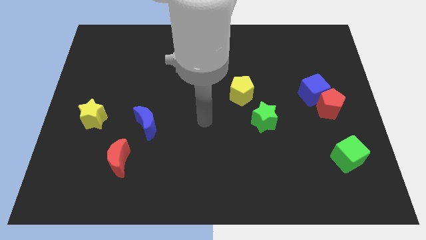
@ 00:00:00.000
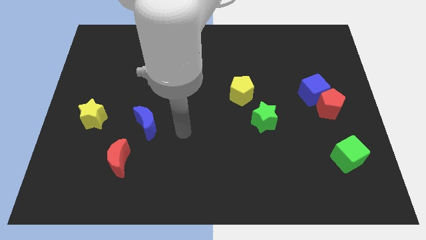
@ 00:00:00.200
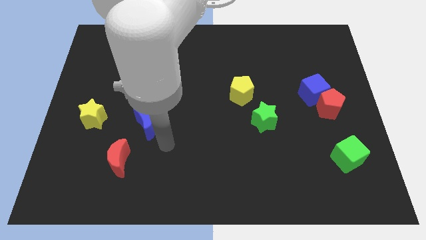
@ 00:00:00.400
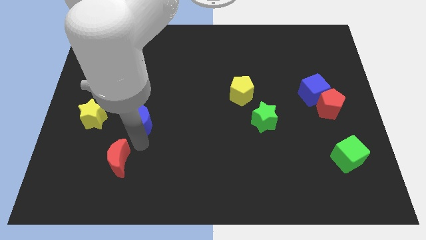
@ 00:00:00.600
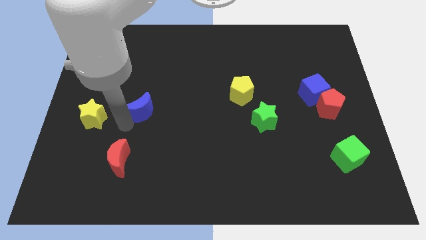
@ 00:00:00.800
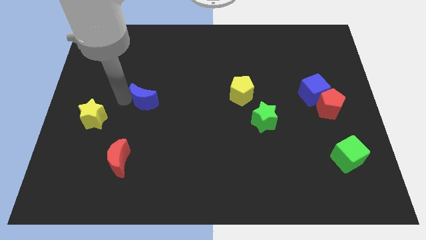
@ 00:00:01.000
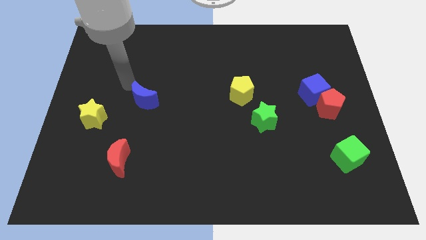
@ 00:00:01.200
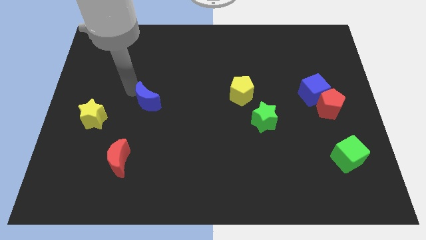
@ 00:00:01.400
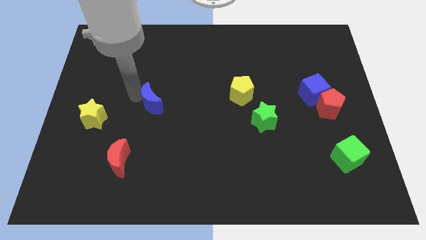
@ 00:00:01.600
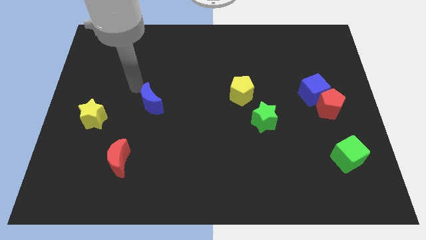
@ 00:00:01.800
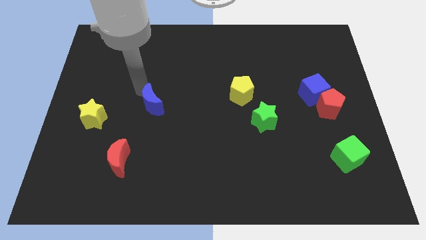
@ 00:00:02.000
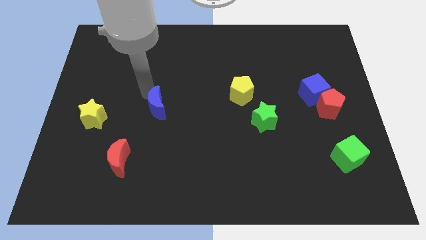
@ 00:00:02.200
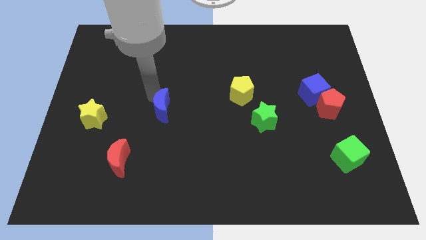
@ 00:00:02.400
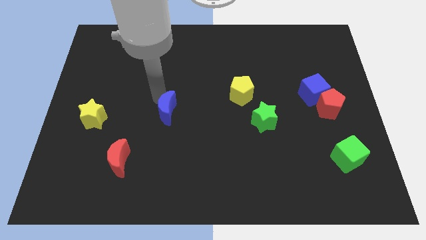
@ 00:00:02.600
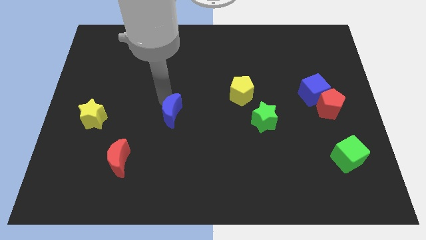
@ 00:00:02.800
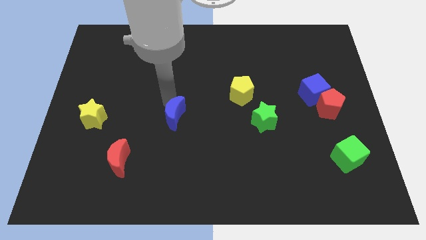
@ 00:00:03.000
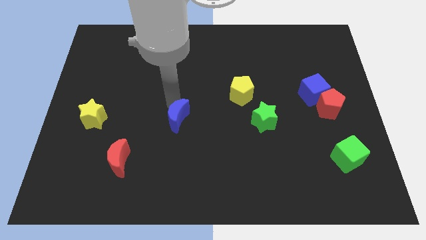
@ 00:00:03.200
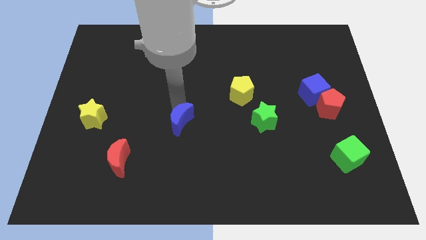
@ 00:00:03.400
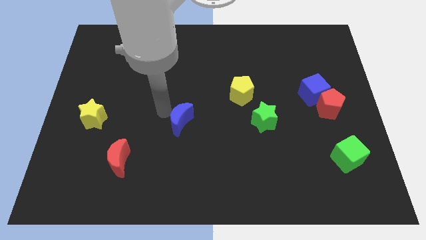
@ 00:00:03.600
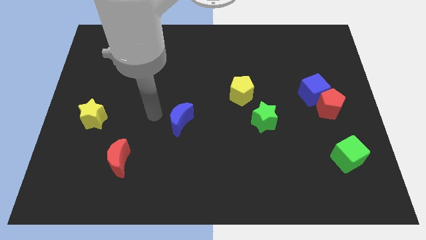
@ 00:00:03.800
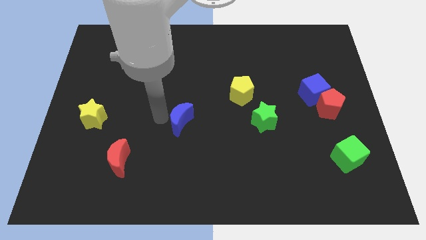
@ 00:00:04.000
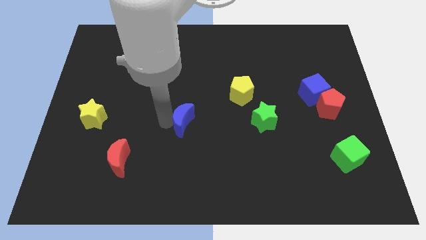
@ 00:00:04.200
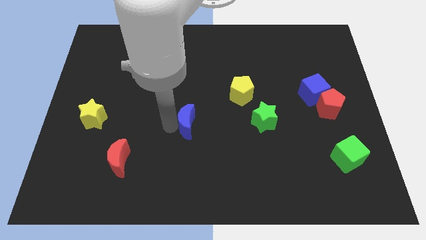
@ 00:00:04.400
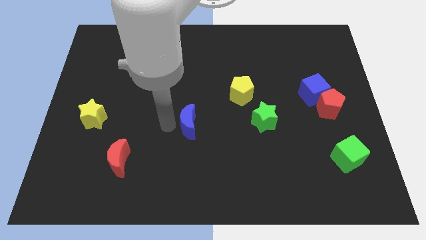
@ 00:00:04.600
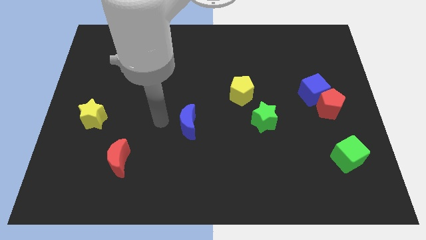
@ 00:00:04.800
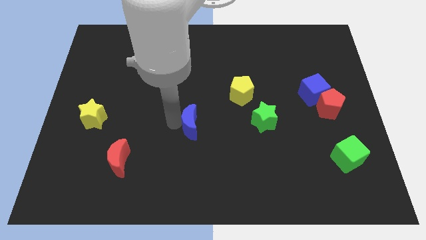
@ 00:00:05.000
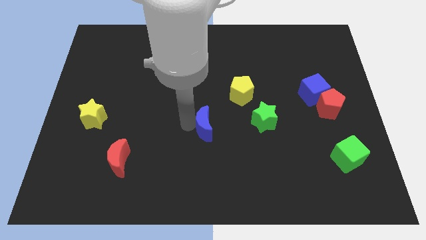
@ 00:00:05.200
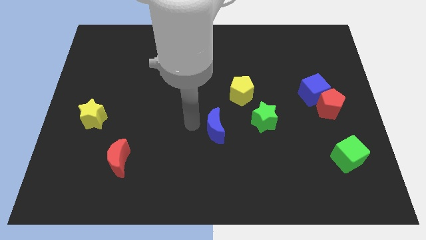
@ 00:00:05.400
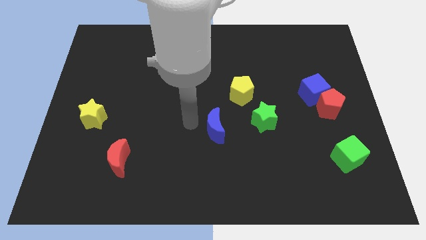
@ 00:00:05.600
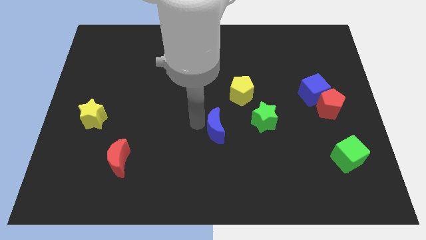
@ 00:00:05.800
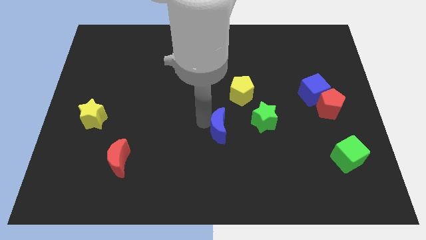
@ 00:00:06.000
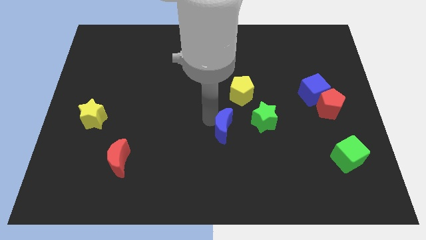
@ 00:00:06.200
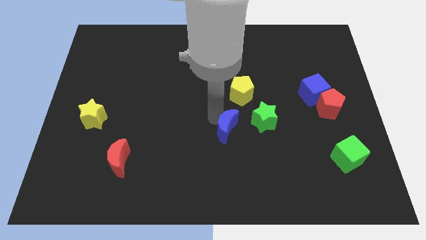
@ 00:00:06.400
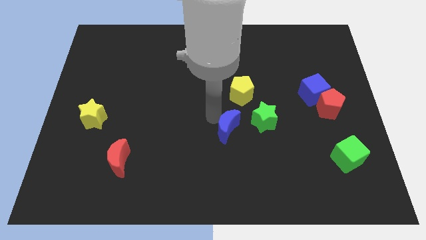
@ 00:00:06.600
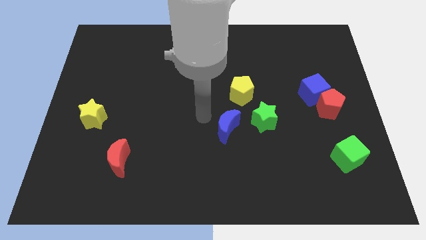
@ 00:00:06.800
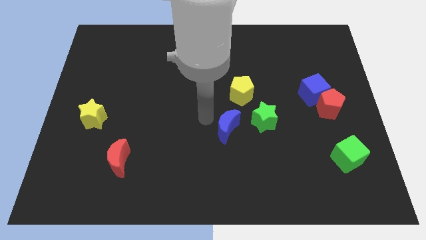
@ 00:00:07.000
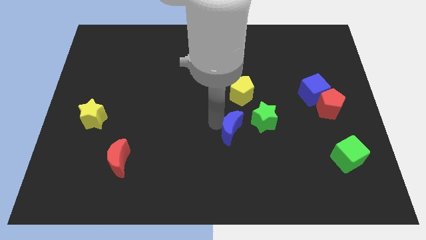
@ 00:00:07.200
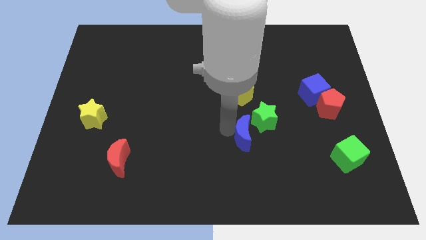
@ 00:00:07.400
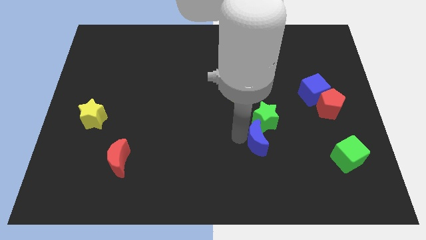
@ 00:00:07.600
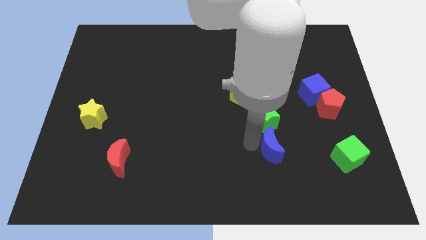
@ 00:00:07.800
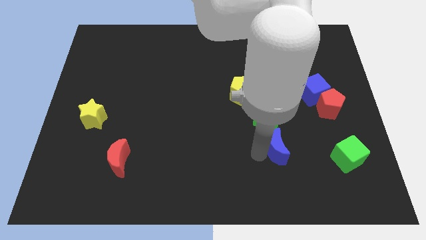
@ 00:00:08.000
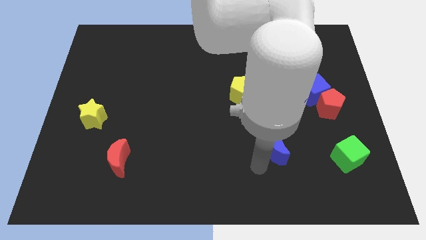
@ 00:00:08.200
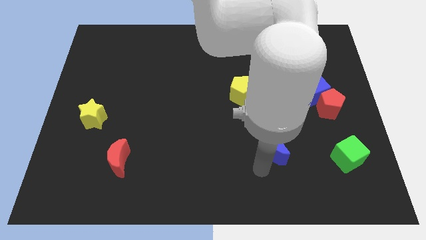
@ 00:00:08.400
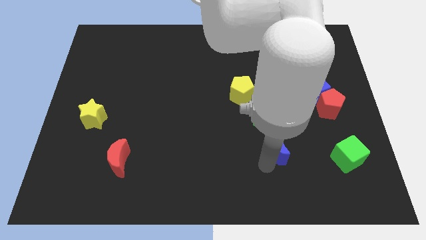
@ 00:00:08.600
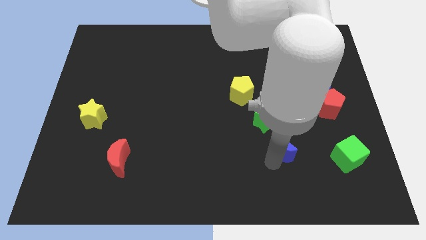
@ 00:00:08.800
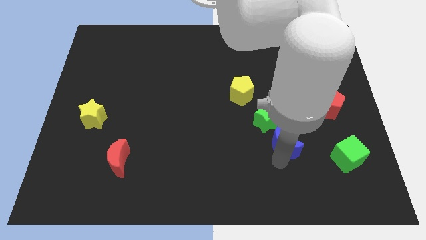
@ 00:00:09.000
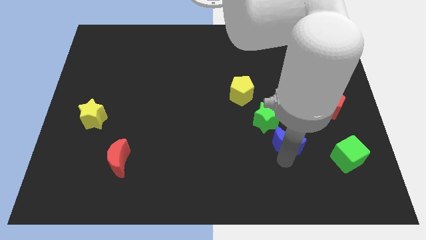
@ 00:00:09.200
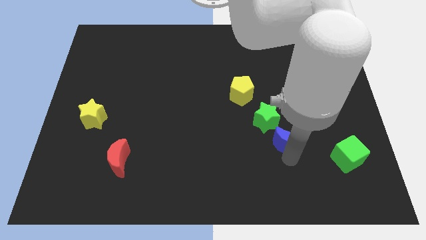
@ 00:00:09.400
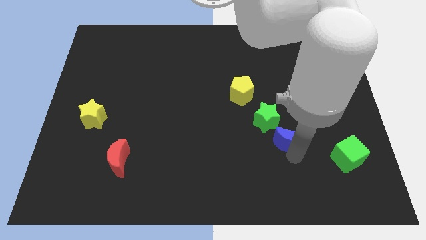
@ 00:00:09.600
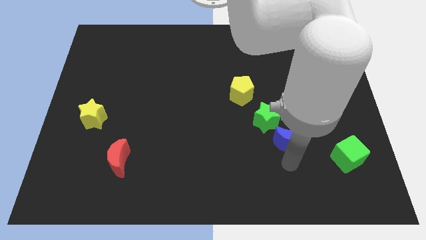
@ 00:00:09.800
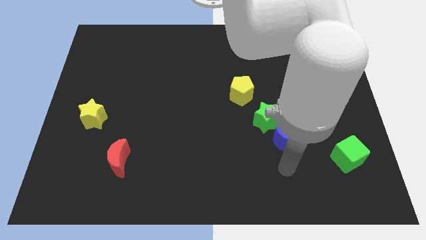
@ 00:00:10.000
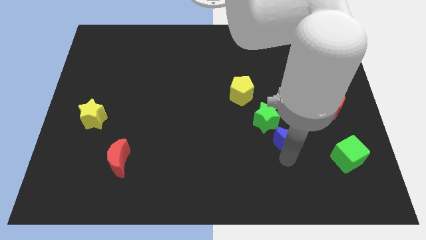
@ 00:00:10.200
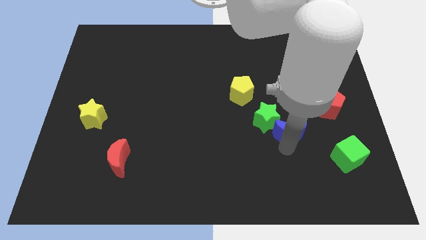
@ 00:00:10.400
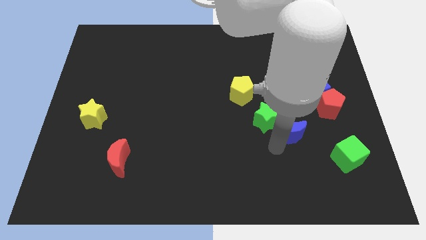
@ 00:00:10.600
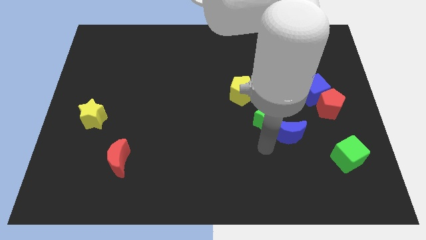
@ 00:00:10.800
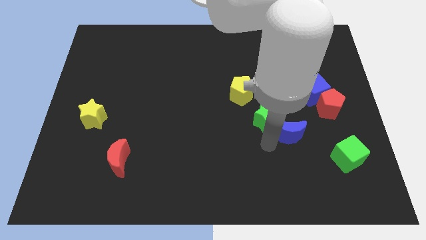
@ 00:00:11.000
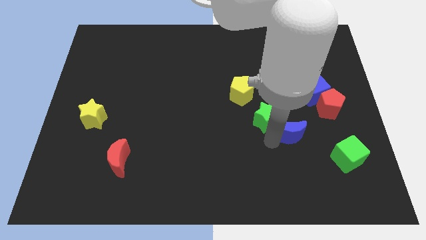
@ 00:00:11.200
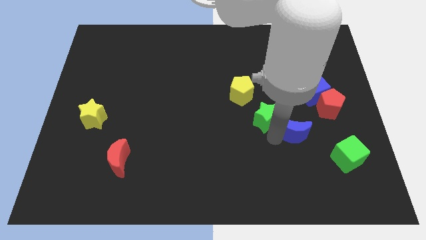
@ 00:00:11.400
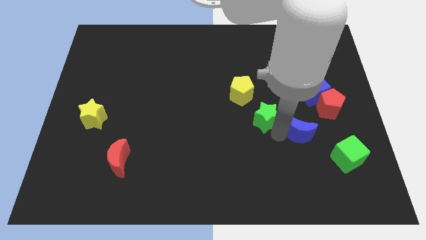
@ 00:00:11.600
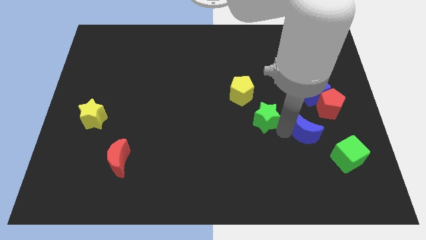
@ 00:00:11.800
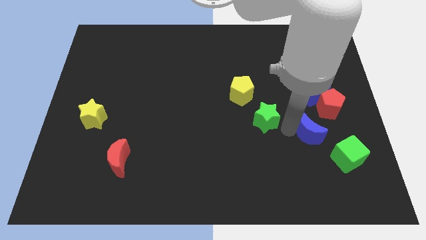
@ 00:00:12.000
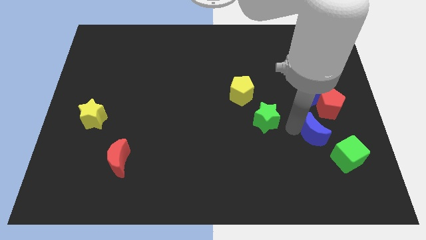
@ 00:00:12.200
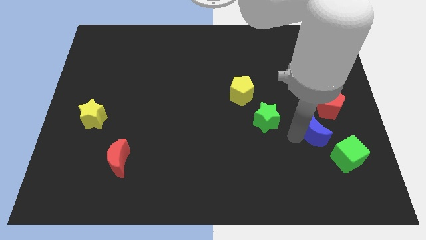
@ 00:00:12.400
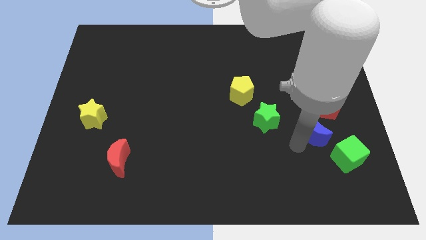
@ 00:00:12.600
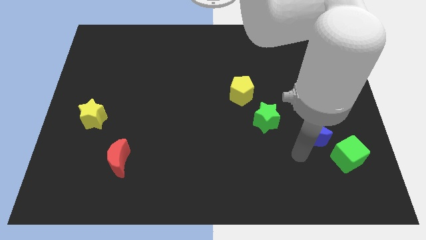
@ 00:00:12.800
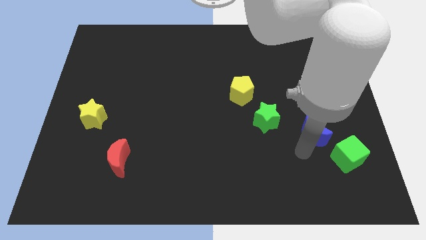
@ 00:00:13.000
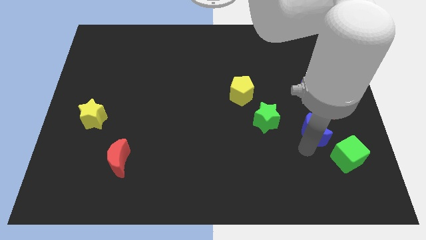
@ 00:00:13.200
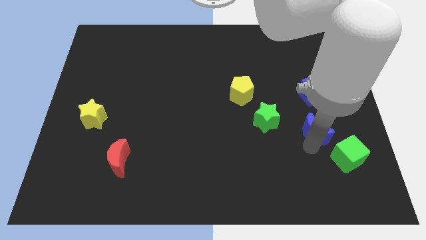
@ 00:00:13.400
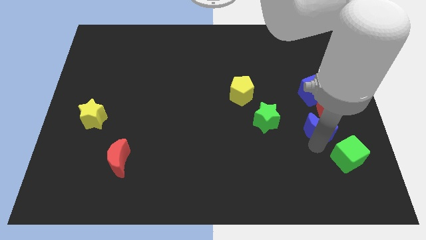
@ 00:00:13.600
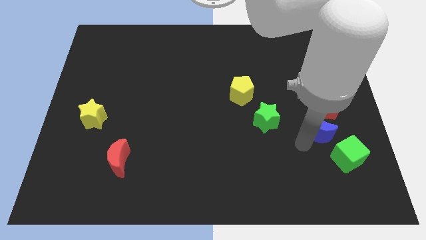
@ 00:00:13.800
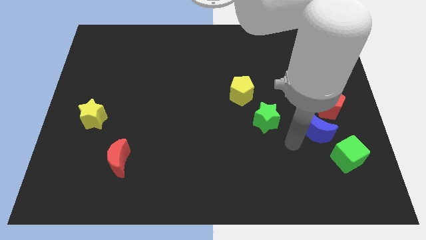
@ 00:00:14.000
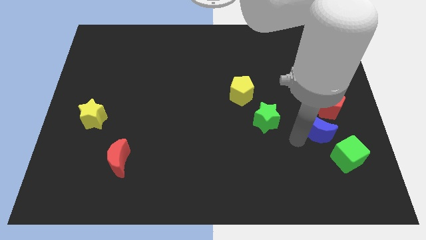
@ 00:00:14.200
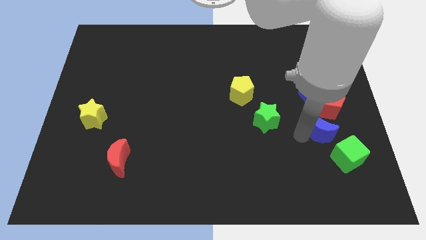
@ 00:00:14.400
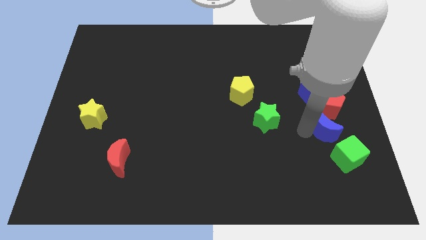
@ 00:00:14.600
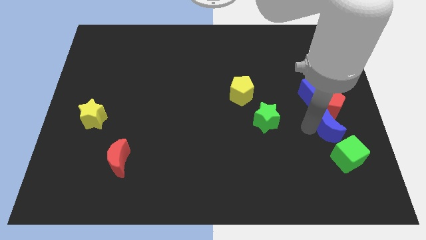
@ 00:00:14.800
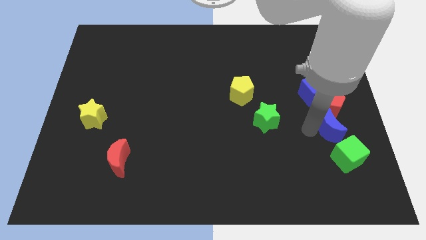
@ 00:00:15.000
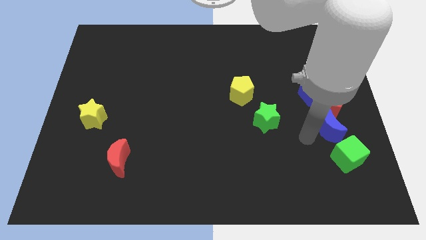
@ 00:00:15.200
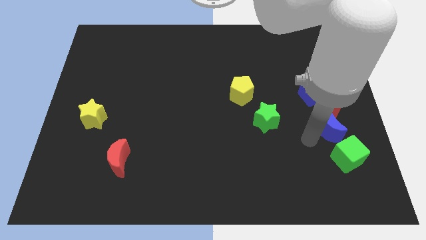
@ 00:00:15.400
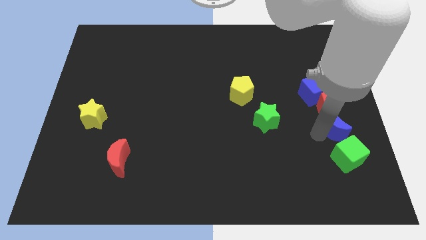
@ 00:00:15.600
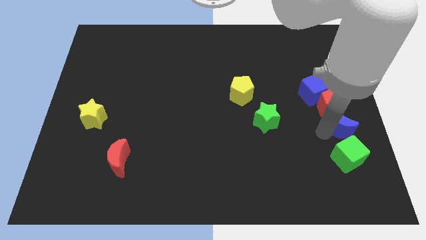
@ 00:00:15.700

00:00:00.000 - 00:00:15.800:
slide the blue moon to the right side of the board
